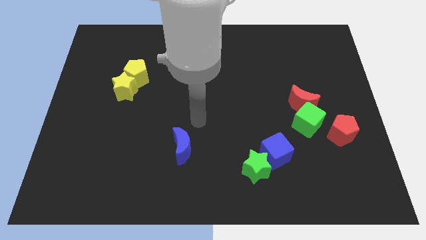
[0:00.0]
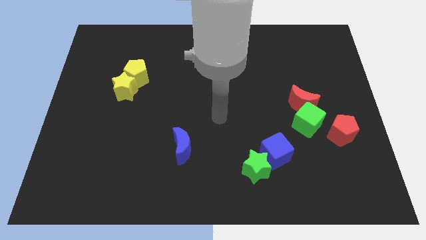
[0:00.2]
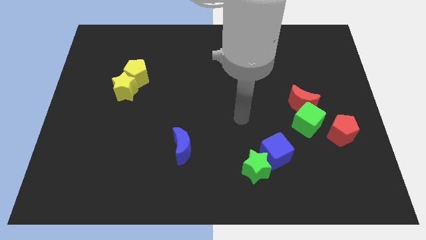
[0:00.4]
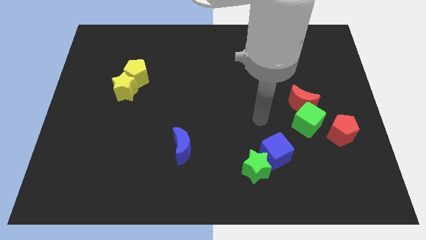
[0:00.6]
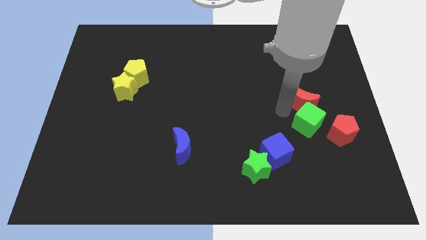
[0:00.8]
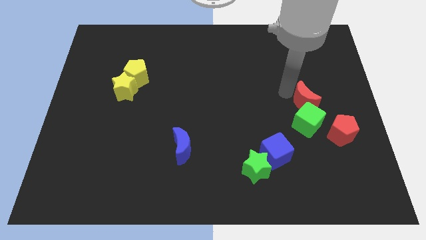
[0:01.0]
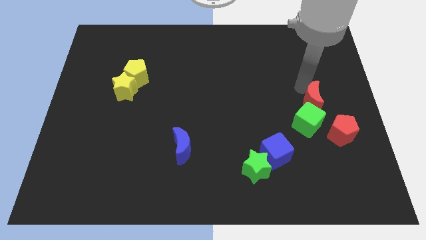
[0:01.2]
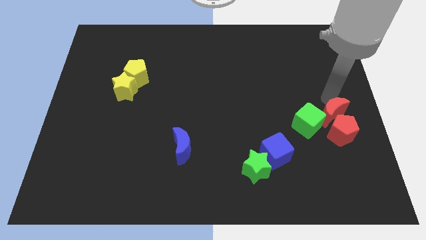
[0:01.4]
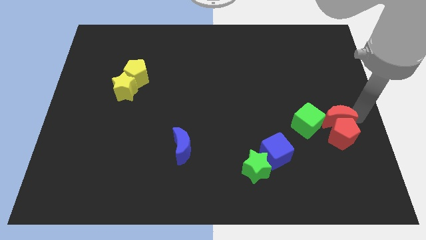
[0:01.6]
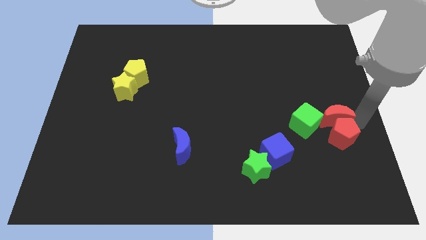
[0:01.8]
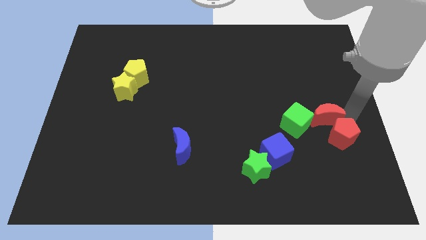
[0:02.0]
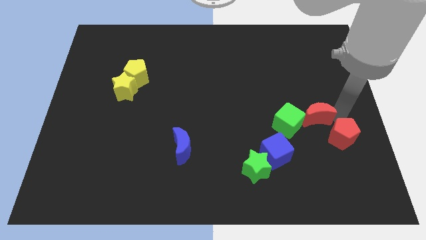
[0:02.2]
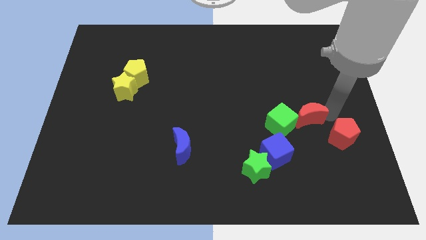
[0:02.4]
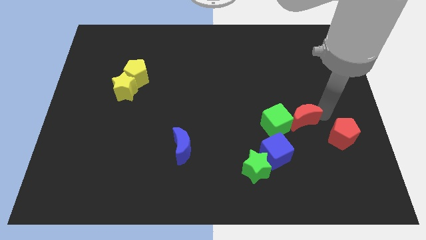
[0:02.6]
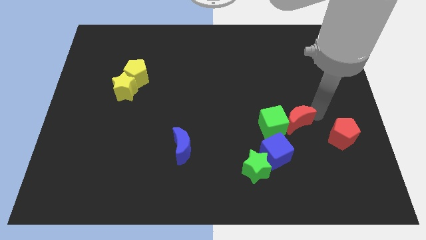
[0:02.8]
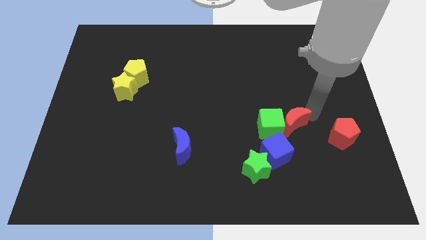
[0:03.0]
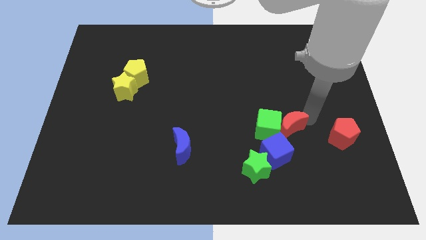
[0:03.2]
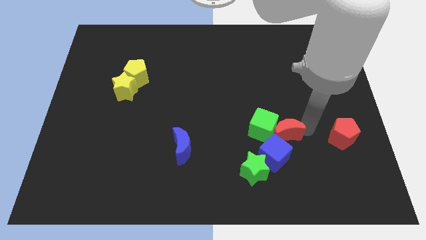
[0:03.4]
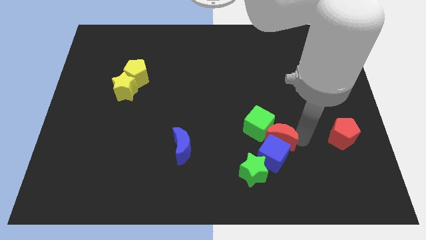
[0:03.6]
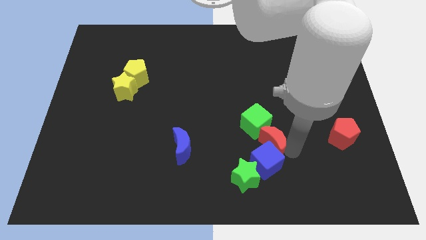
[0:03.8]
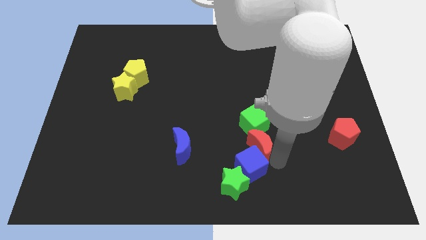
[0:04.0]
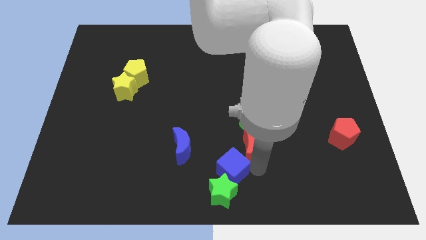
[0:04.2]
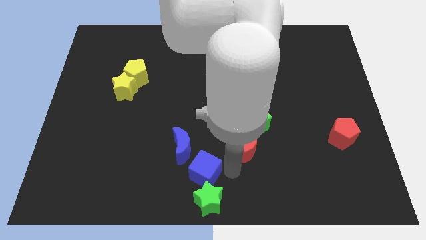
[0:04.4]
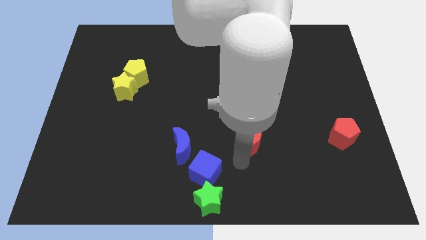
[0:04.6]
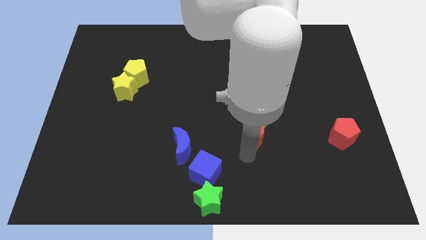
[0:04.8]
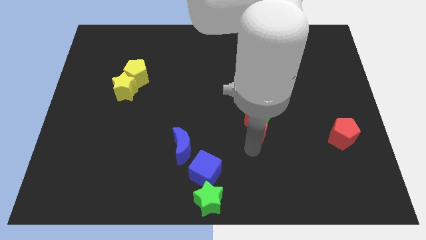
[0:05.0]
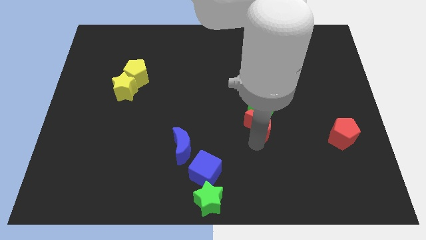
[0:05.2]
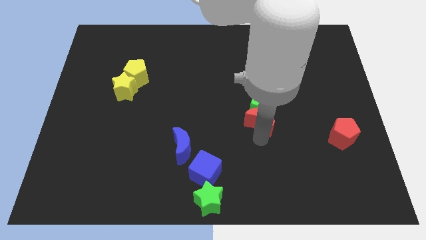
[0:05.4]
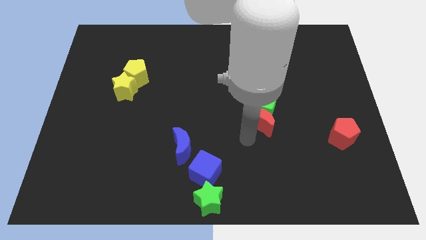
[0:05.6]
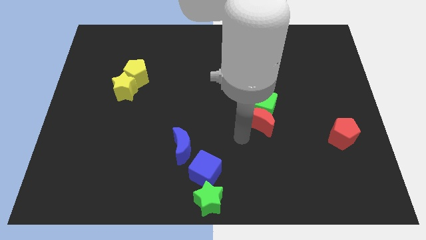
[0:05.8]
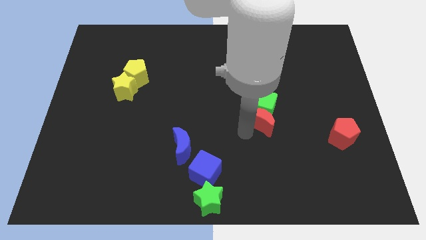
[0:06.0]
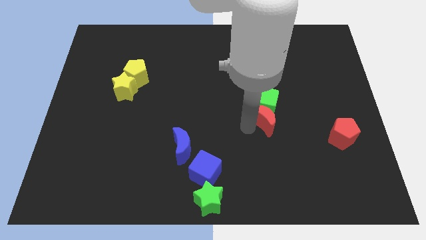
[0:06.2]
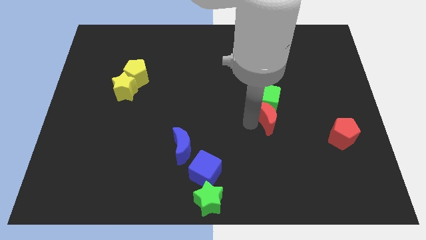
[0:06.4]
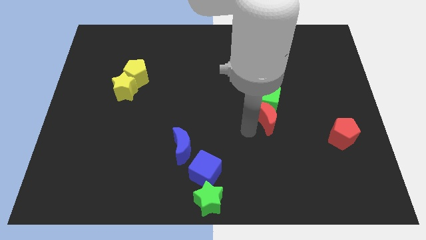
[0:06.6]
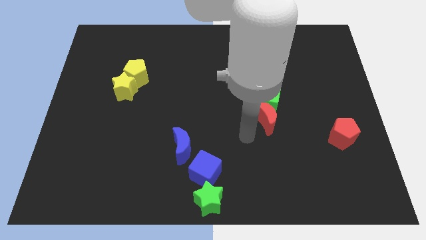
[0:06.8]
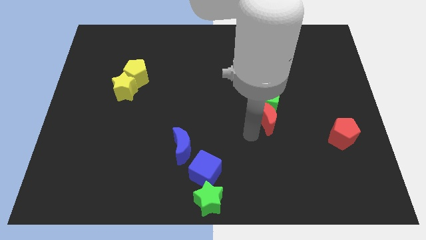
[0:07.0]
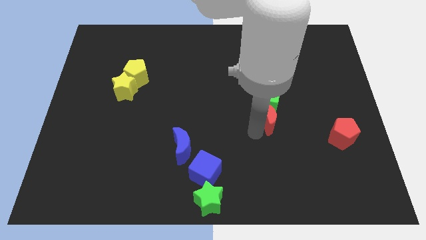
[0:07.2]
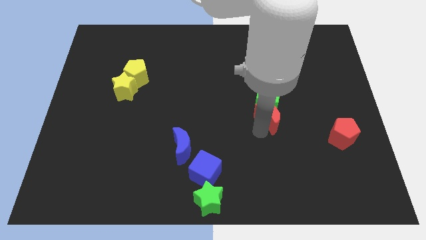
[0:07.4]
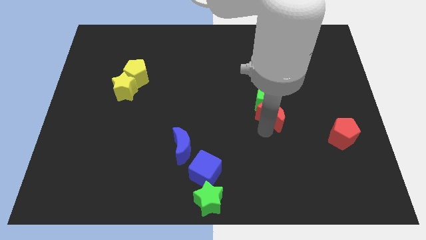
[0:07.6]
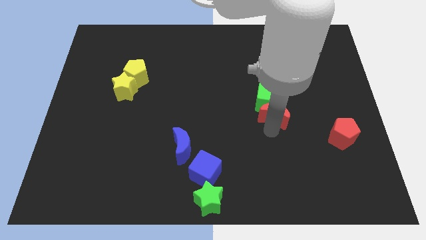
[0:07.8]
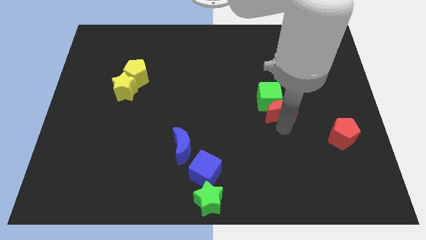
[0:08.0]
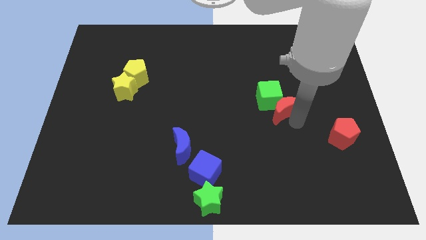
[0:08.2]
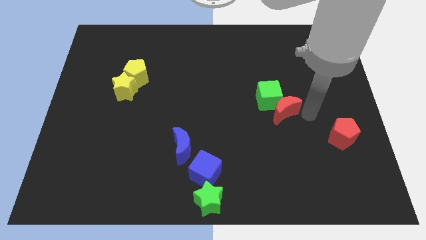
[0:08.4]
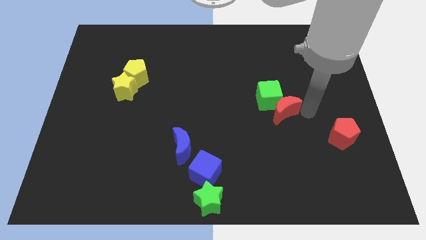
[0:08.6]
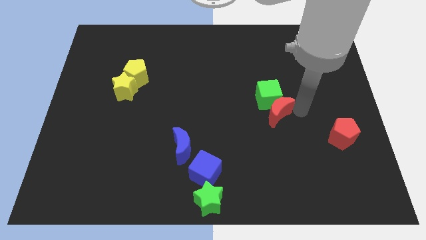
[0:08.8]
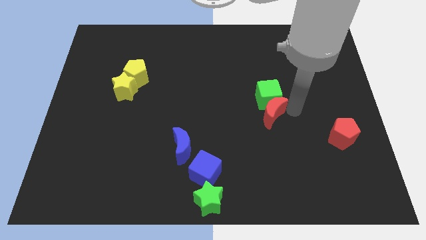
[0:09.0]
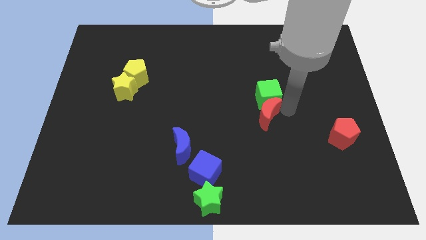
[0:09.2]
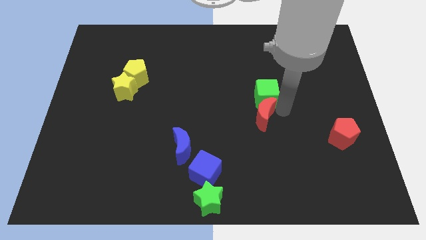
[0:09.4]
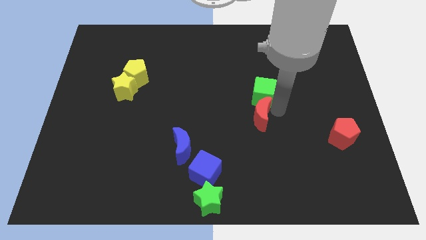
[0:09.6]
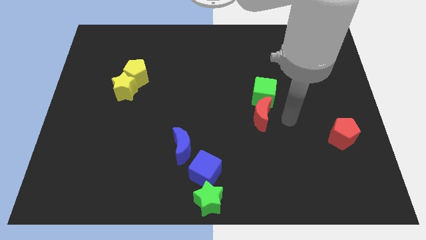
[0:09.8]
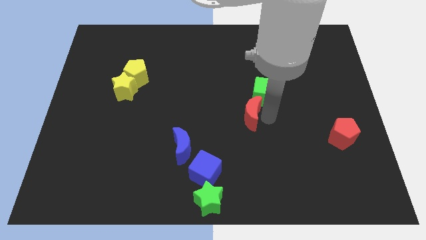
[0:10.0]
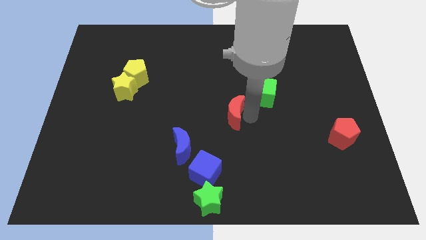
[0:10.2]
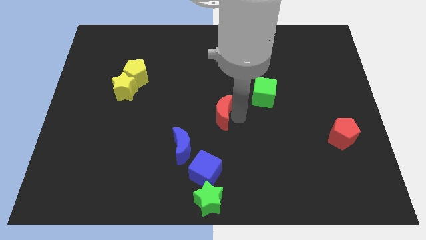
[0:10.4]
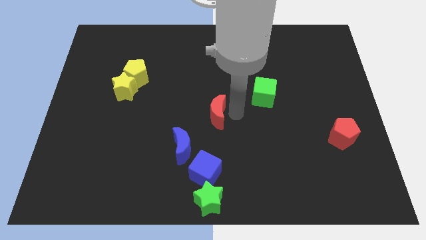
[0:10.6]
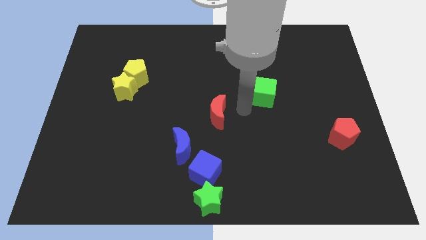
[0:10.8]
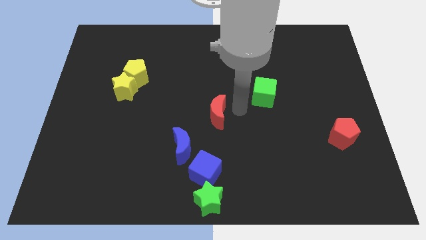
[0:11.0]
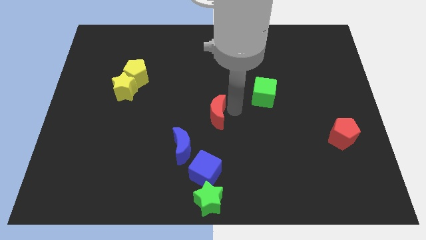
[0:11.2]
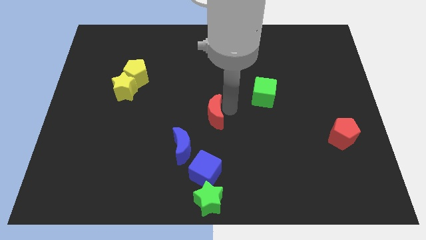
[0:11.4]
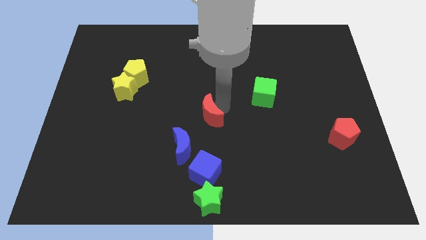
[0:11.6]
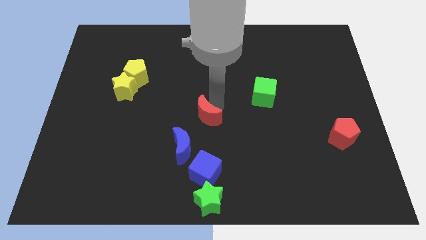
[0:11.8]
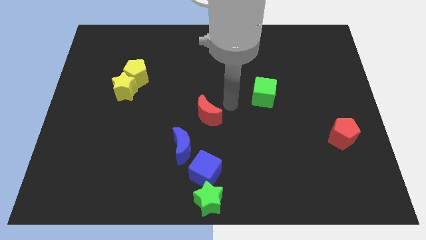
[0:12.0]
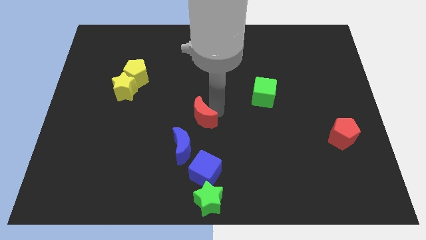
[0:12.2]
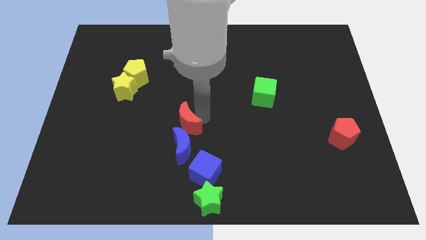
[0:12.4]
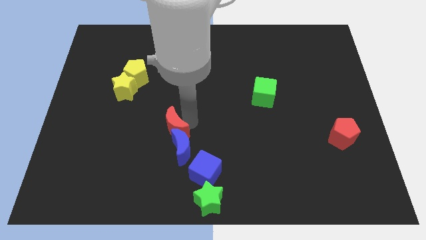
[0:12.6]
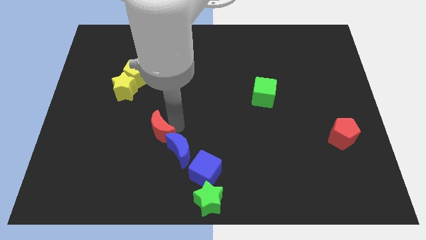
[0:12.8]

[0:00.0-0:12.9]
move the red moon to the left of the blue moon

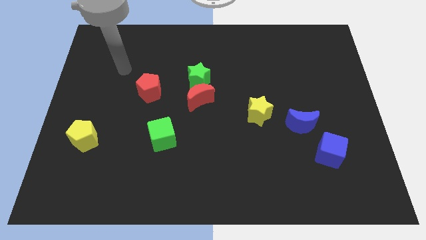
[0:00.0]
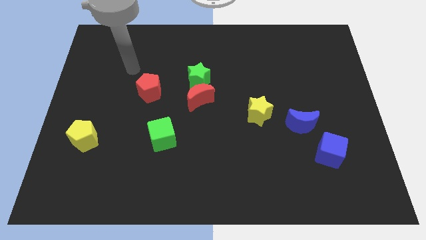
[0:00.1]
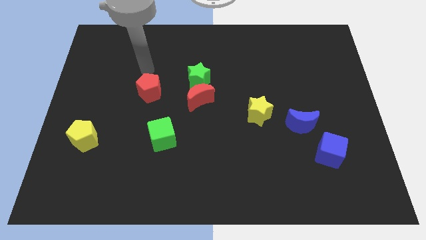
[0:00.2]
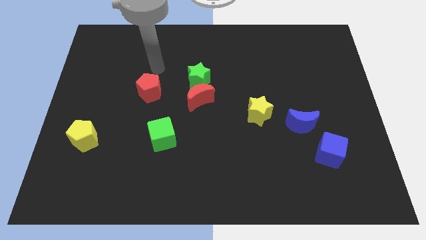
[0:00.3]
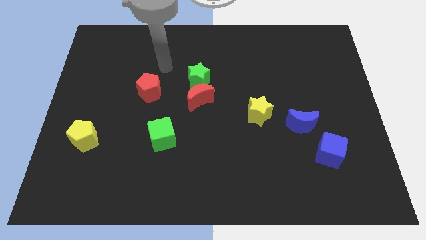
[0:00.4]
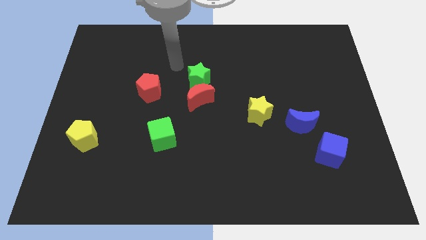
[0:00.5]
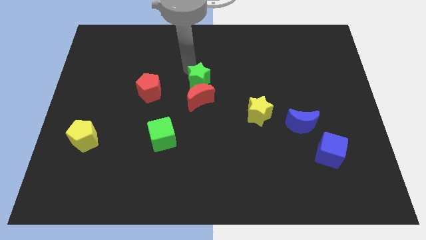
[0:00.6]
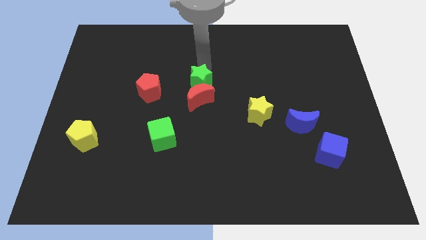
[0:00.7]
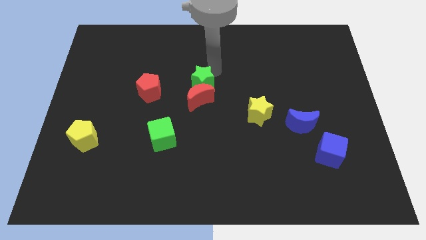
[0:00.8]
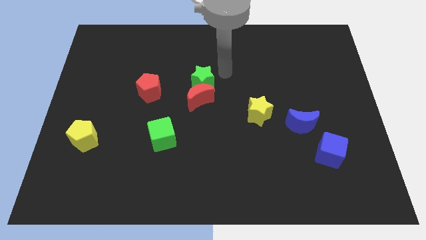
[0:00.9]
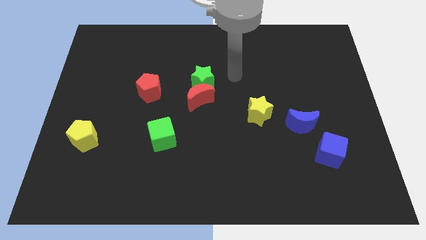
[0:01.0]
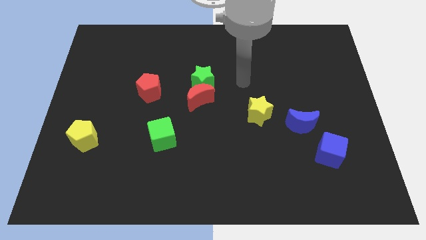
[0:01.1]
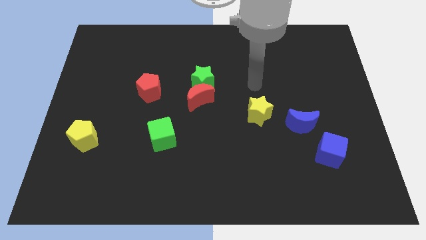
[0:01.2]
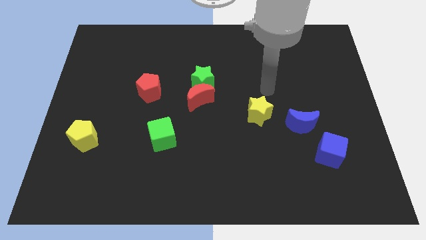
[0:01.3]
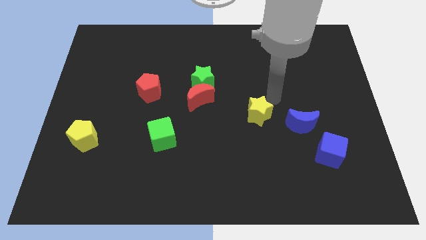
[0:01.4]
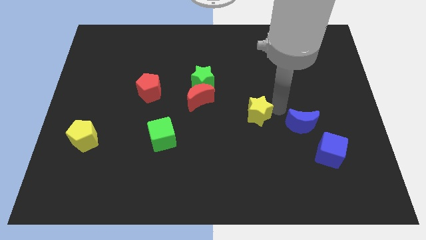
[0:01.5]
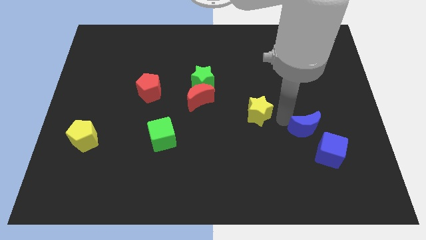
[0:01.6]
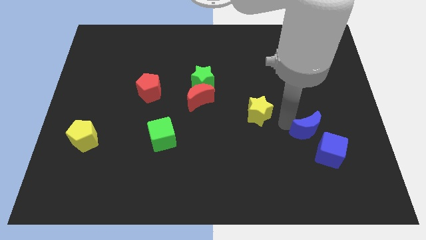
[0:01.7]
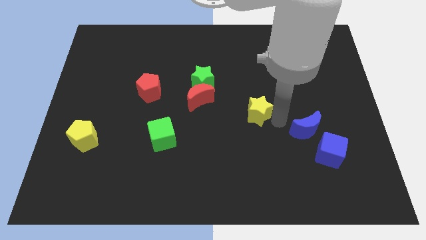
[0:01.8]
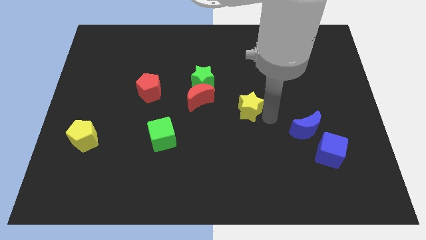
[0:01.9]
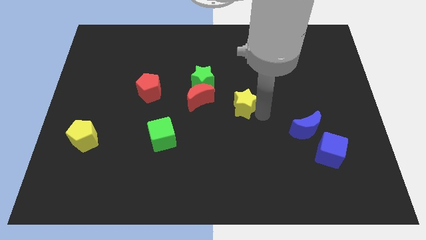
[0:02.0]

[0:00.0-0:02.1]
push the yellow star diagonally down and to the right of the green star
